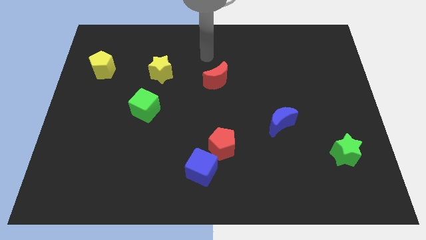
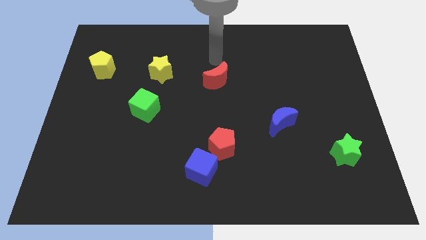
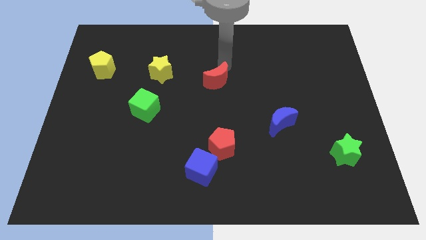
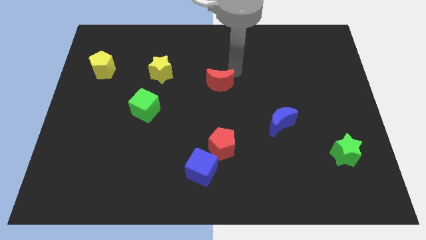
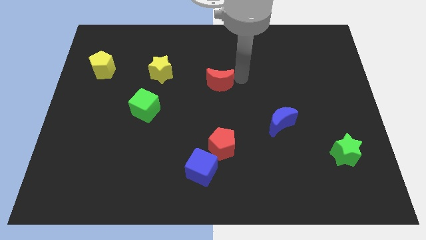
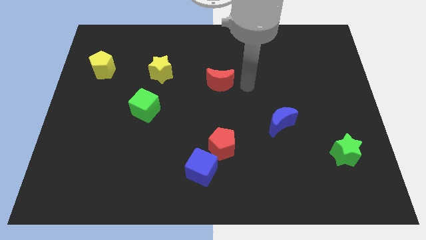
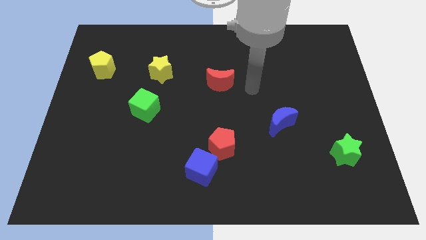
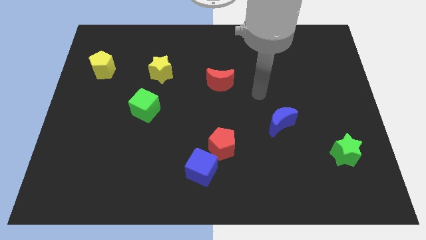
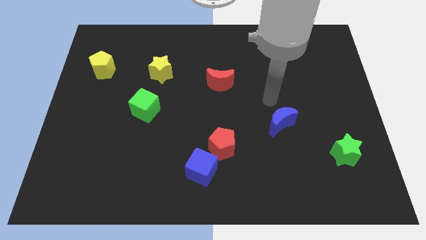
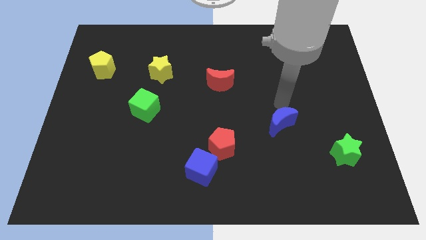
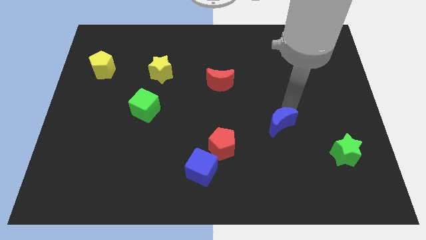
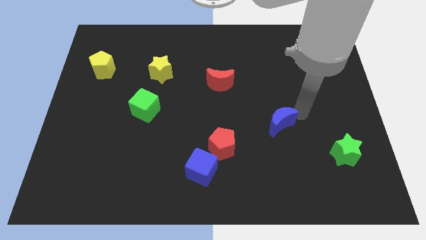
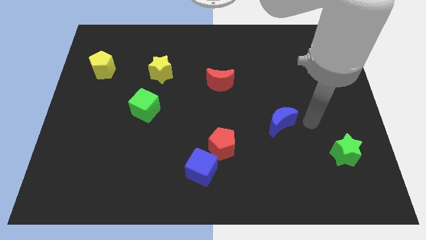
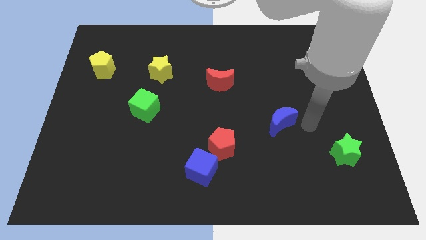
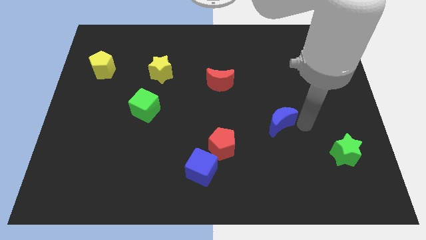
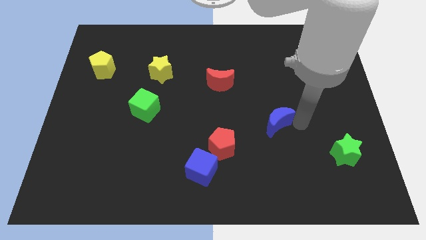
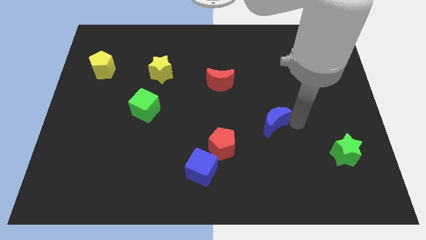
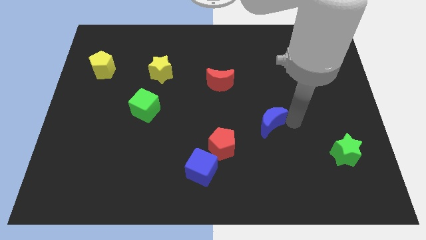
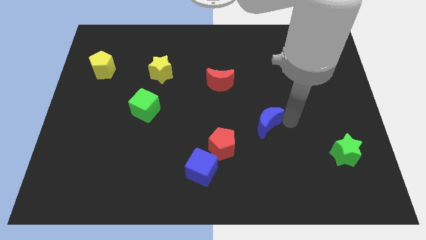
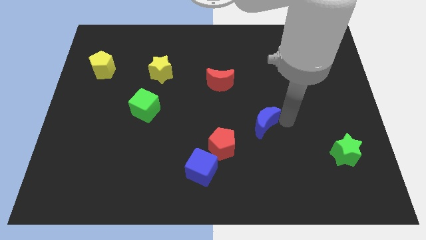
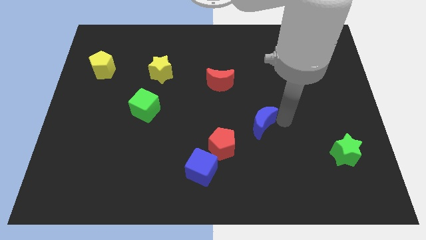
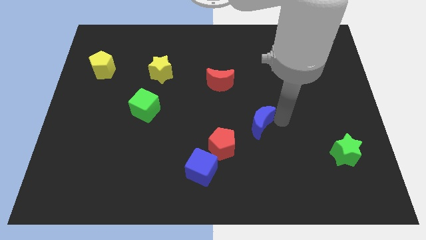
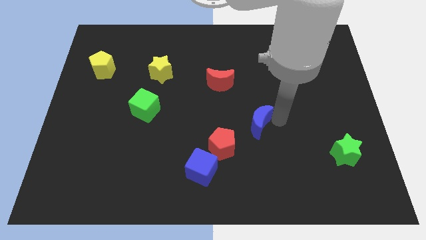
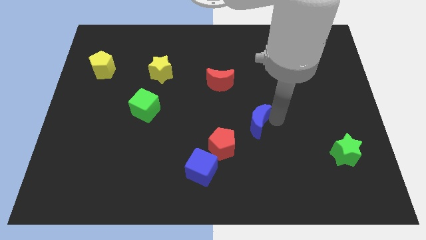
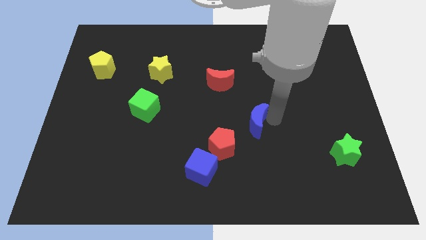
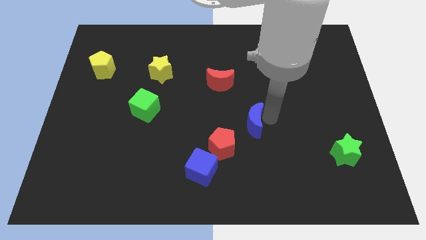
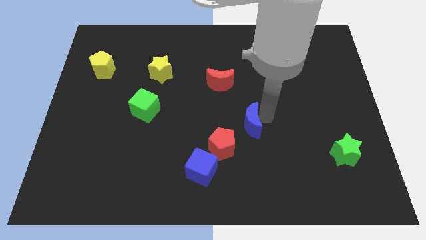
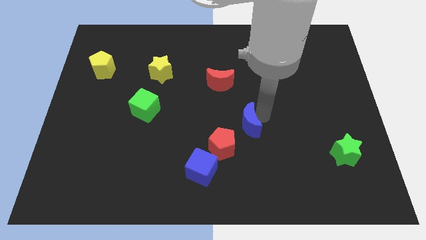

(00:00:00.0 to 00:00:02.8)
slightly move the blue moon to the left

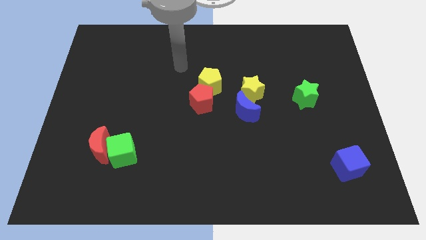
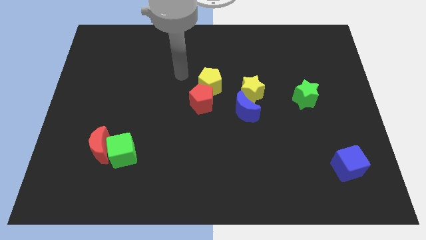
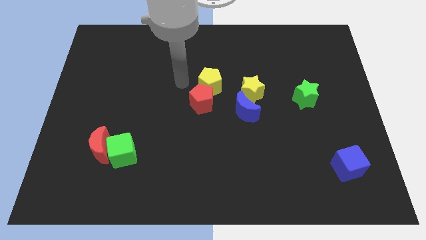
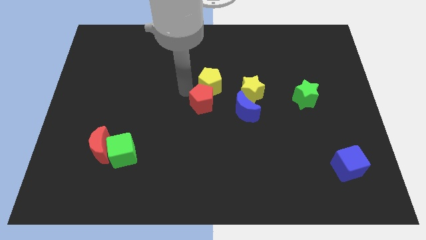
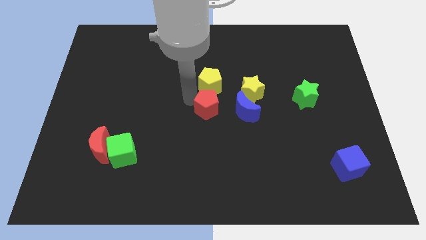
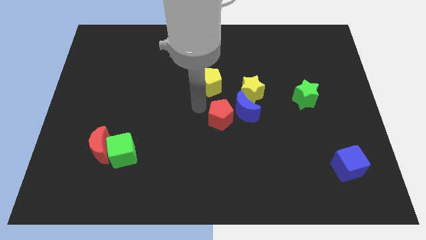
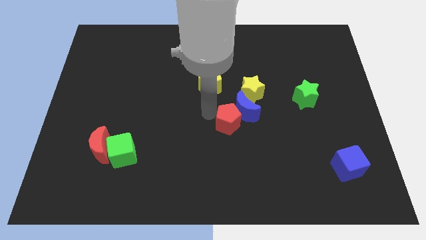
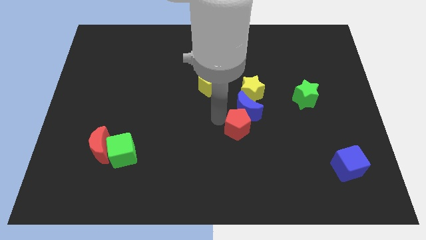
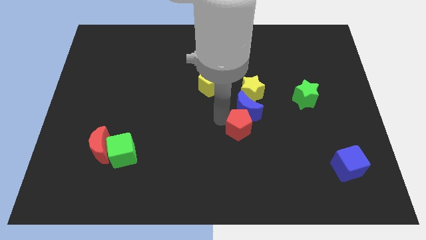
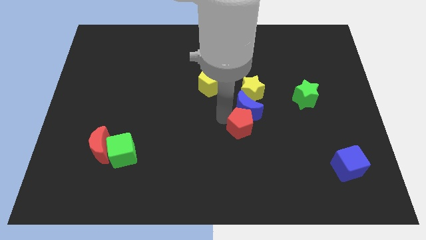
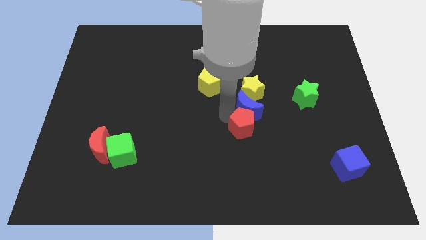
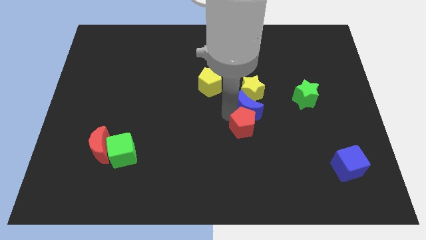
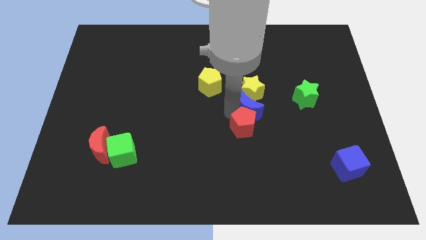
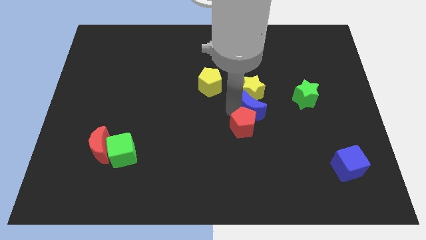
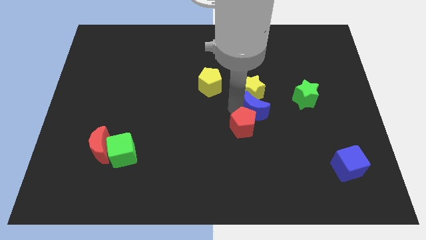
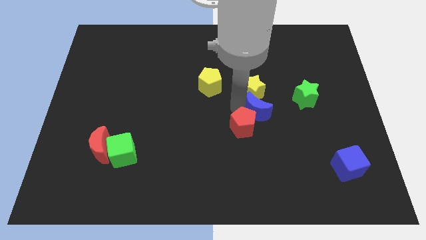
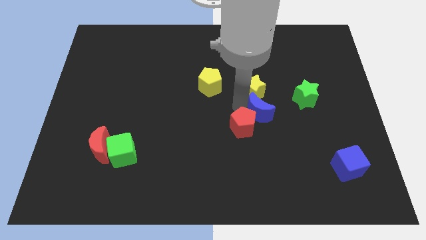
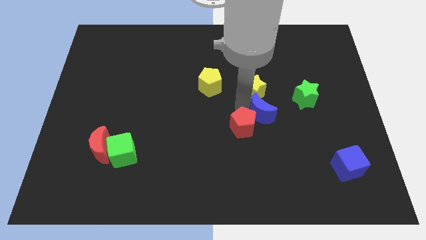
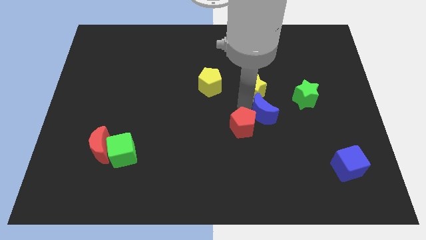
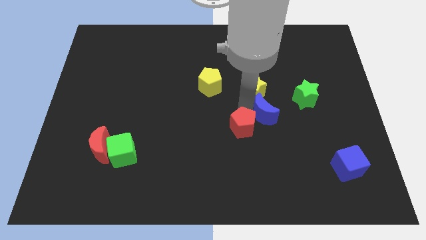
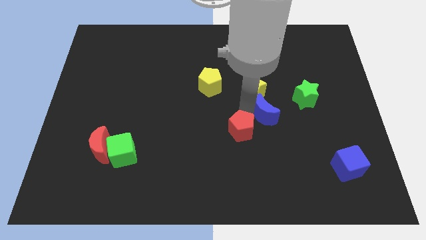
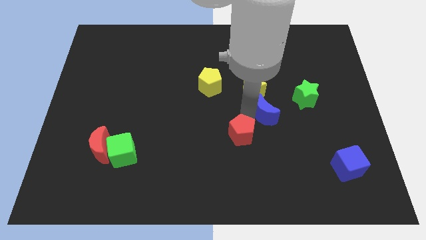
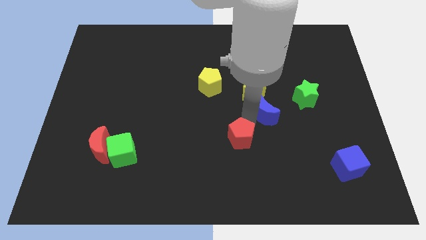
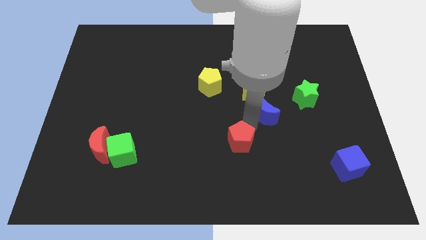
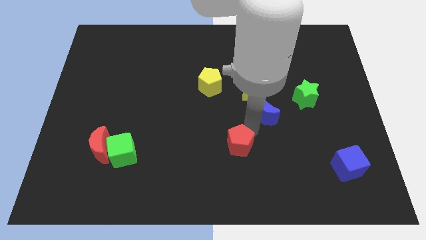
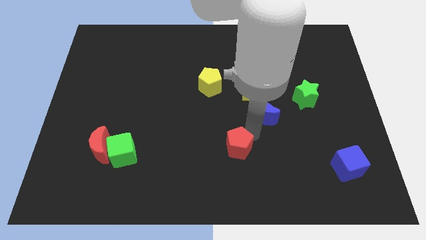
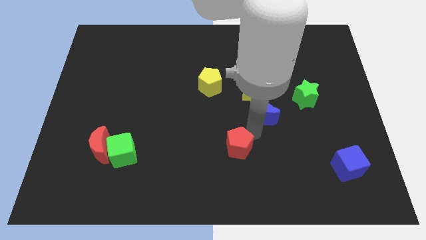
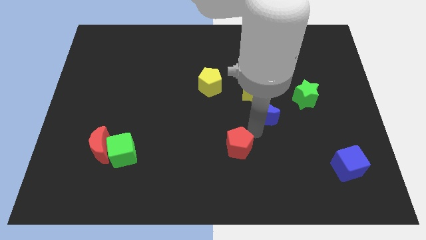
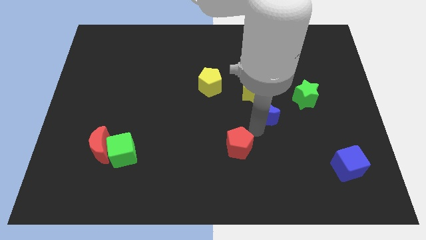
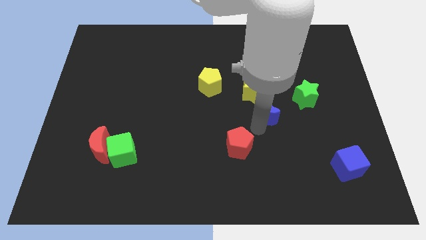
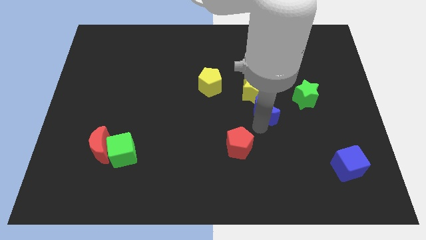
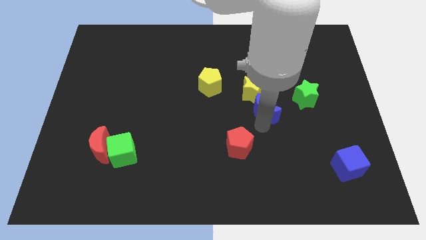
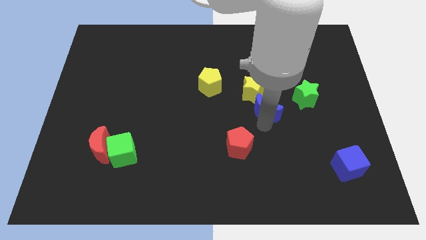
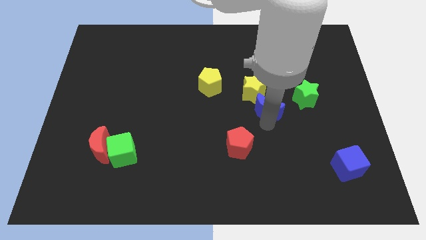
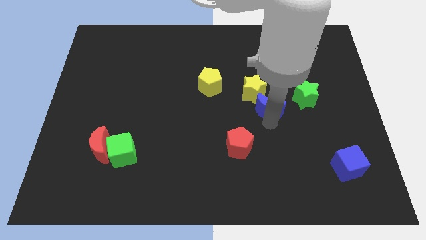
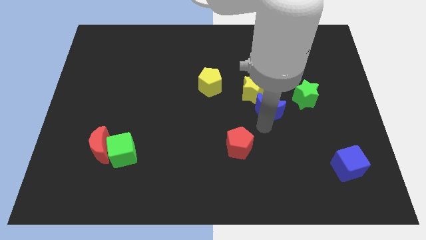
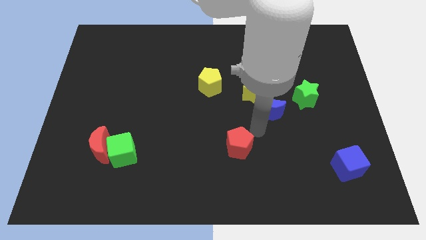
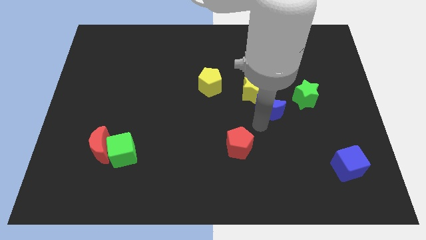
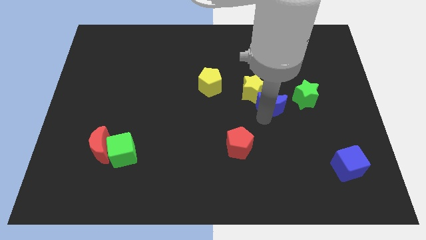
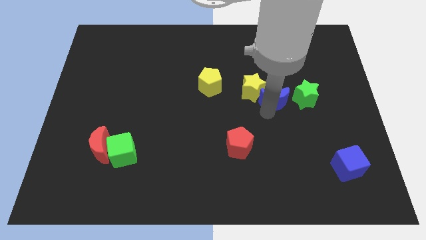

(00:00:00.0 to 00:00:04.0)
move the blue moon upwards and to the right slightly

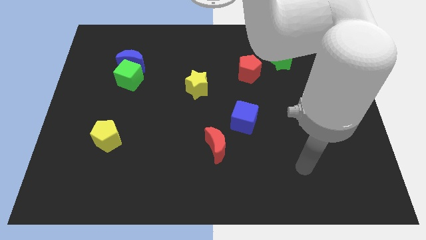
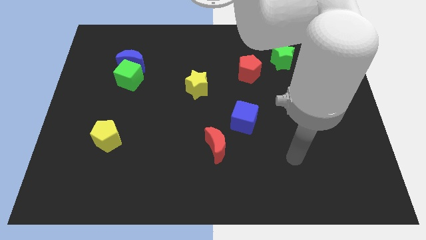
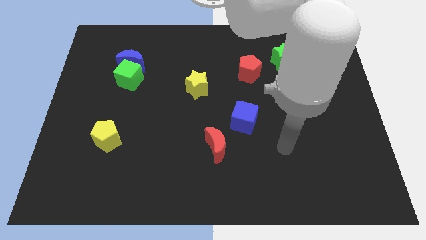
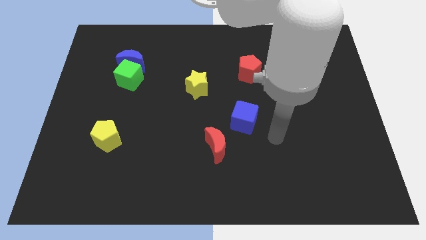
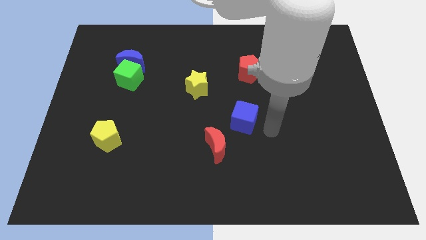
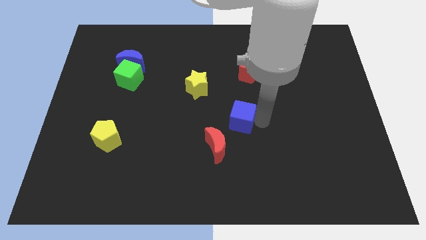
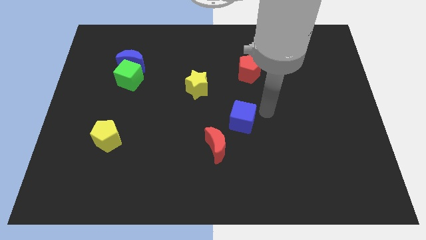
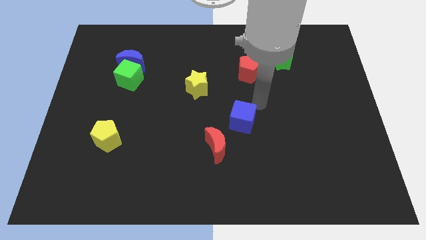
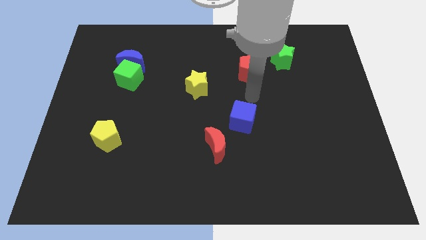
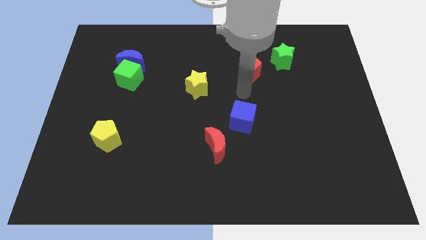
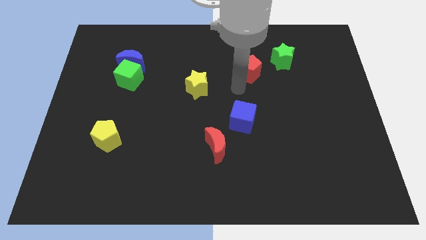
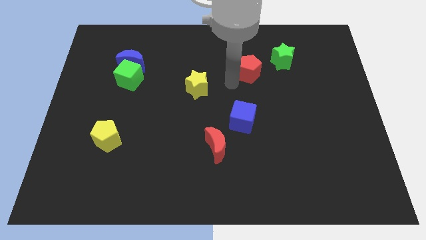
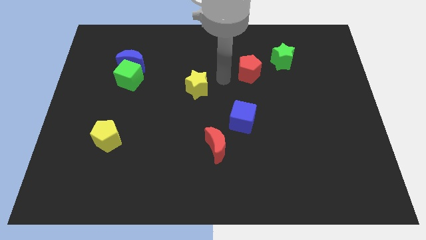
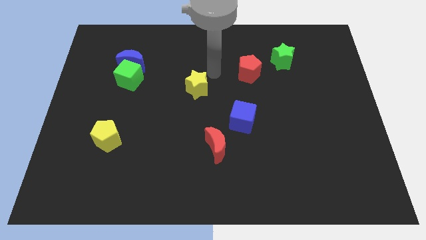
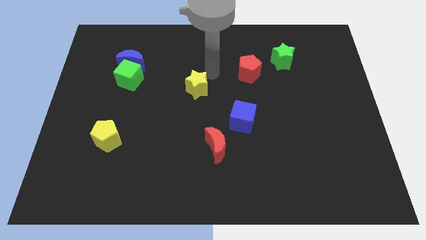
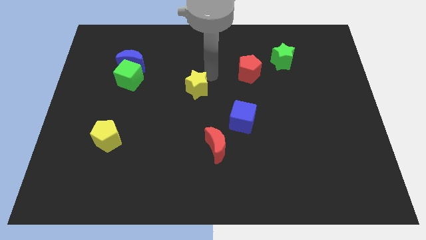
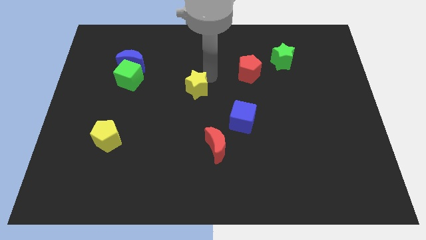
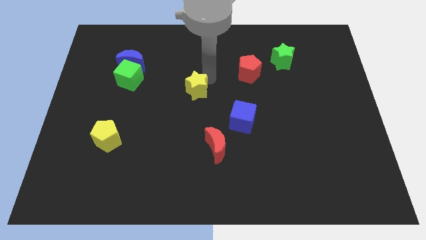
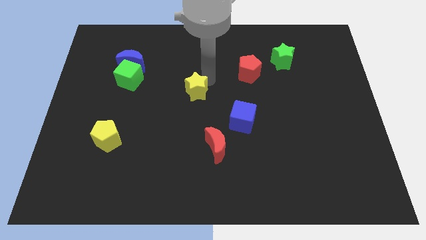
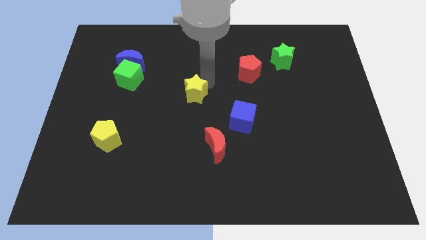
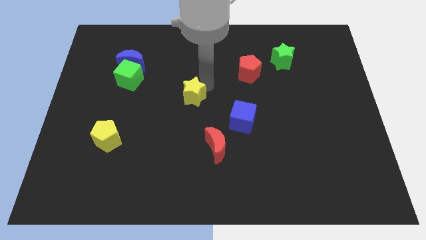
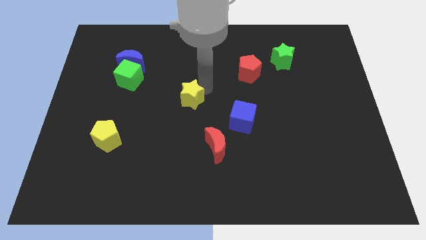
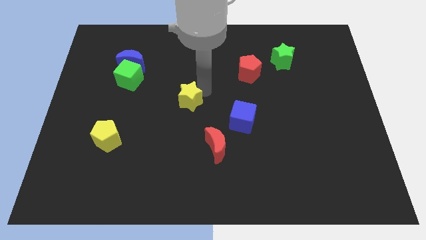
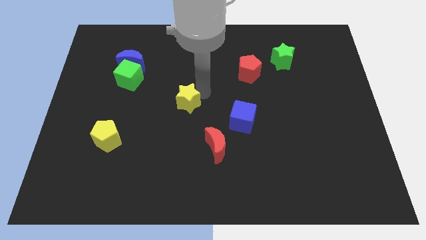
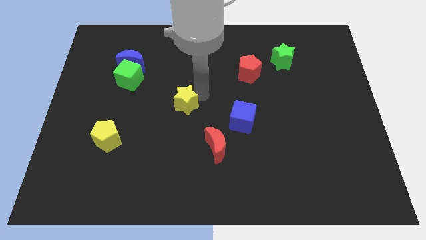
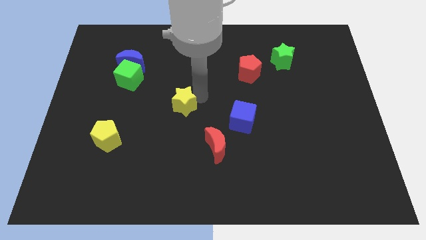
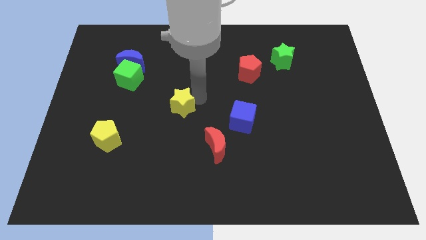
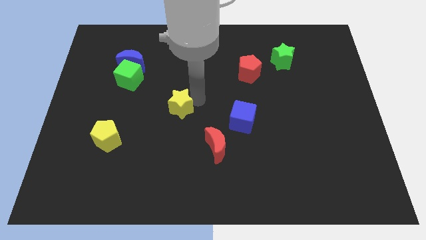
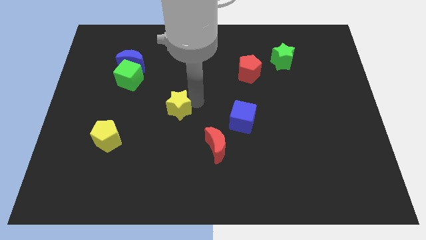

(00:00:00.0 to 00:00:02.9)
slightly slide the yellow star downwards and left
